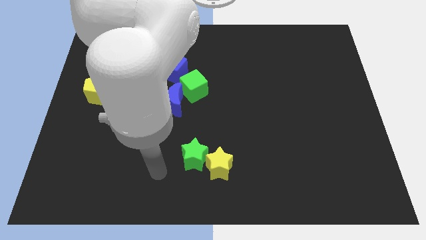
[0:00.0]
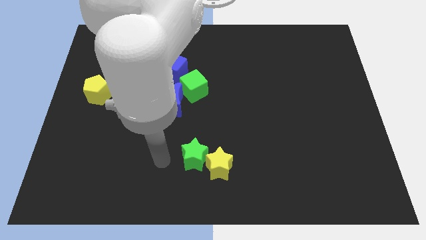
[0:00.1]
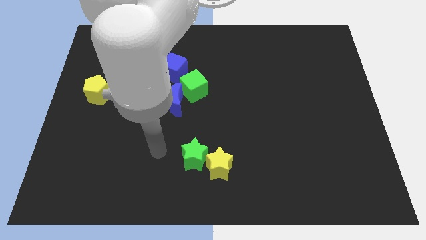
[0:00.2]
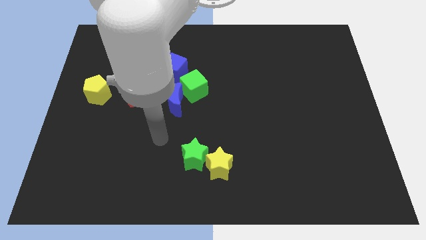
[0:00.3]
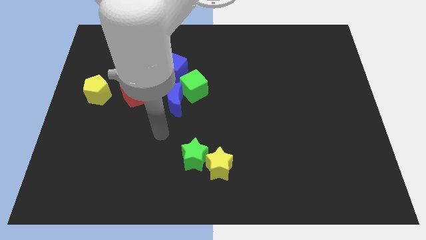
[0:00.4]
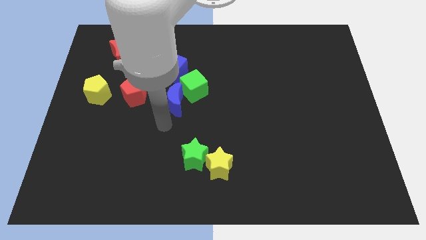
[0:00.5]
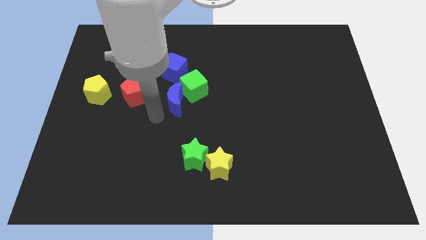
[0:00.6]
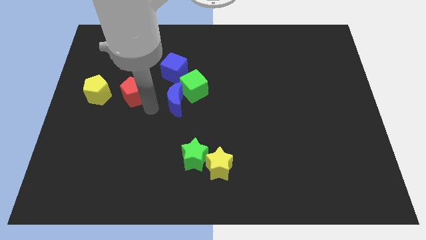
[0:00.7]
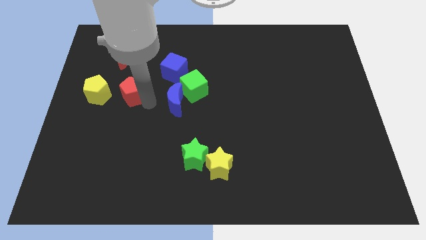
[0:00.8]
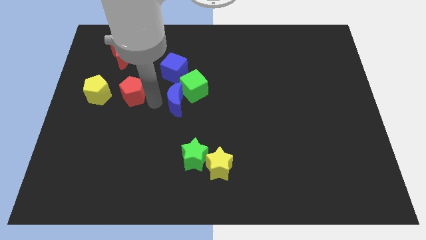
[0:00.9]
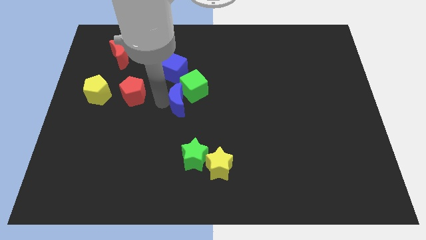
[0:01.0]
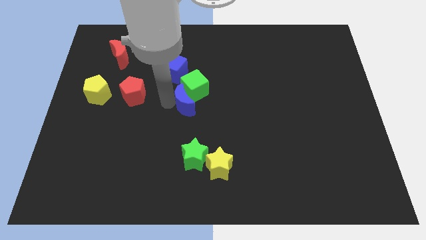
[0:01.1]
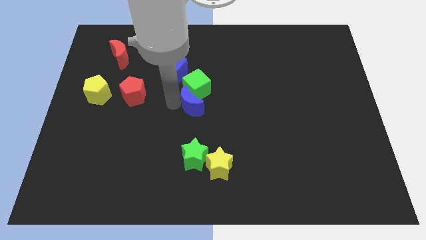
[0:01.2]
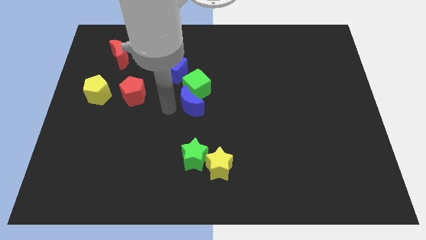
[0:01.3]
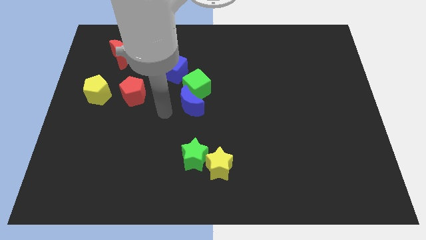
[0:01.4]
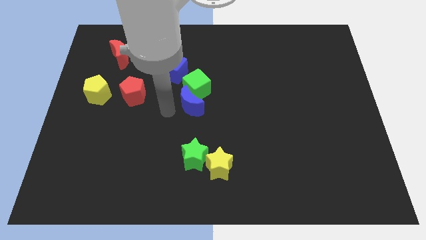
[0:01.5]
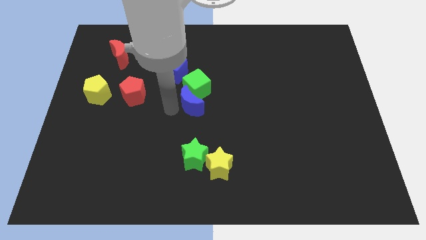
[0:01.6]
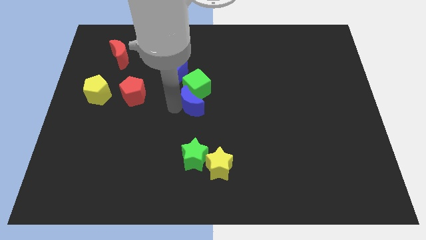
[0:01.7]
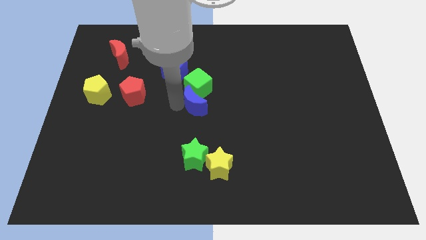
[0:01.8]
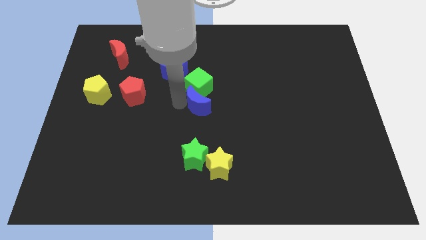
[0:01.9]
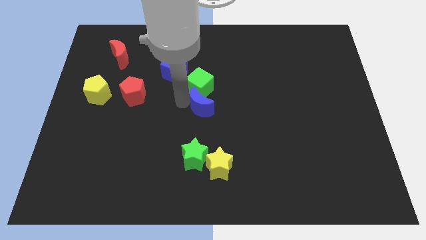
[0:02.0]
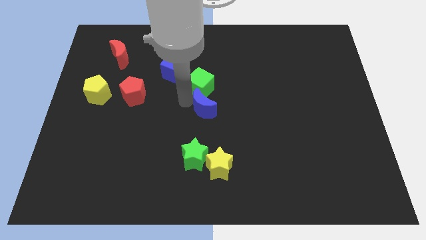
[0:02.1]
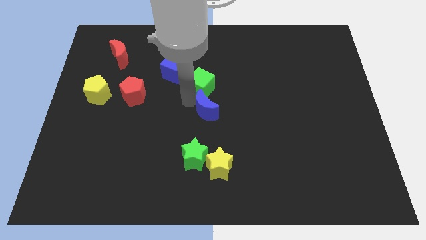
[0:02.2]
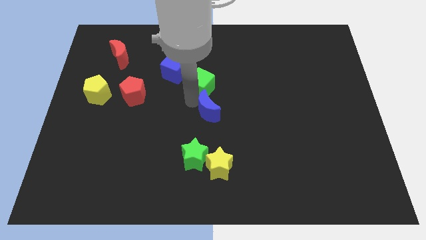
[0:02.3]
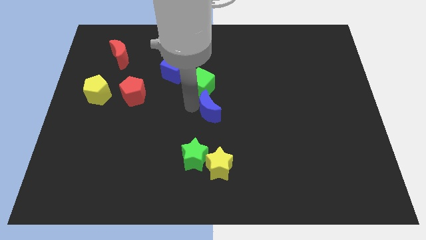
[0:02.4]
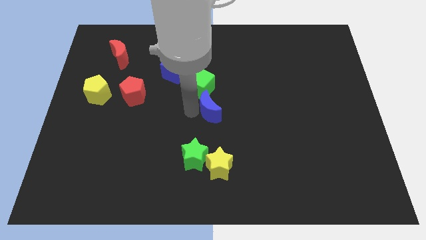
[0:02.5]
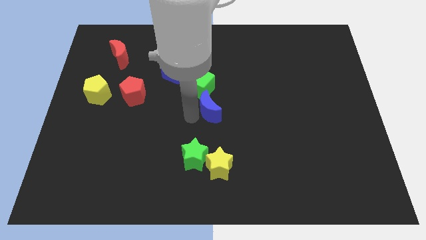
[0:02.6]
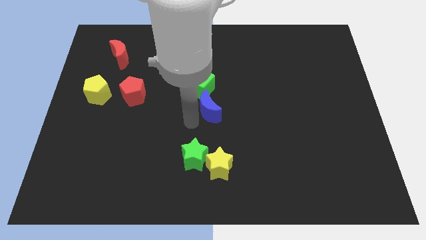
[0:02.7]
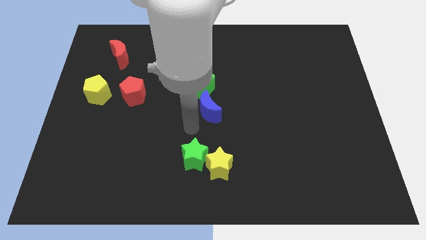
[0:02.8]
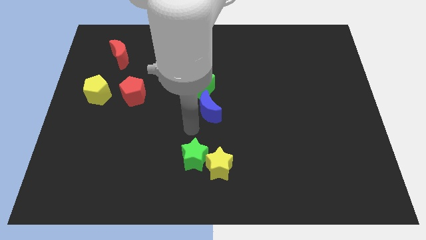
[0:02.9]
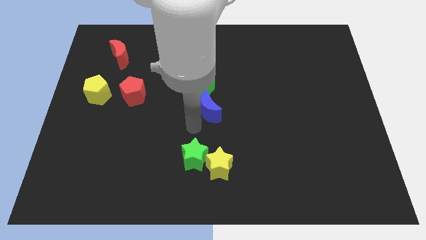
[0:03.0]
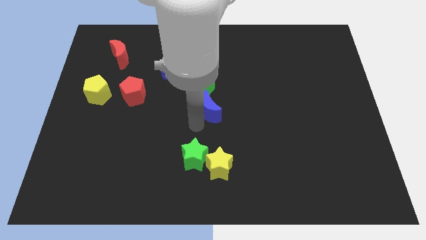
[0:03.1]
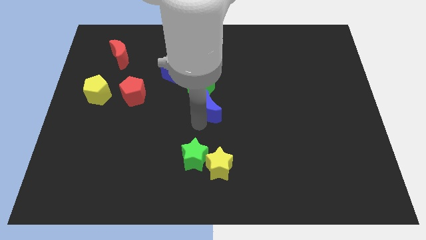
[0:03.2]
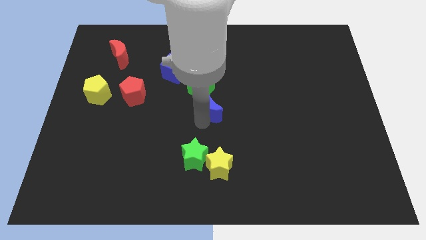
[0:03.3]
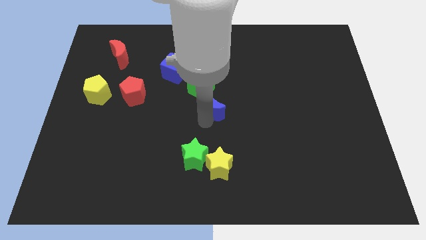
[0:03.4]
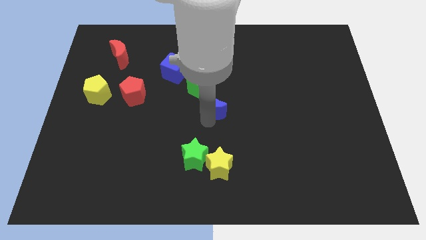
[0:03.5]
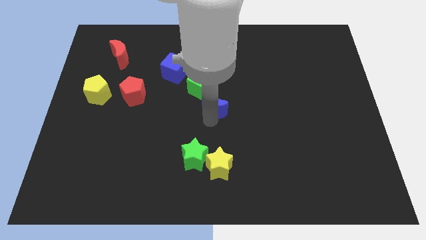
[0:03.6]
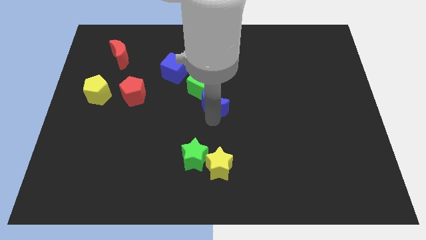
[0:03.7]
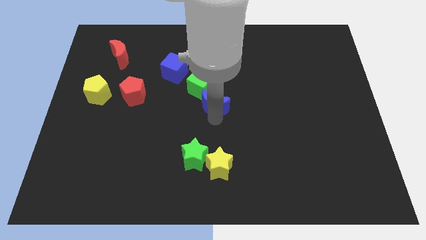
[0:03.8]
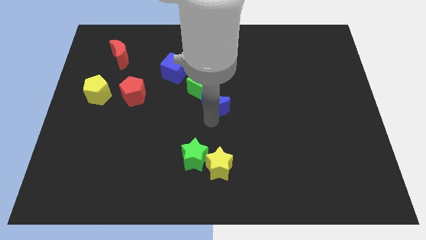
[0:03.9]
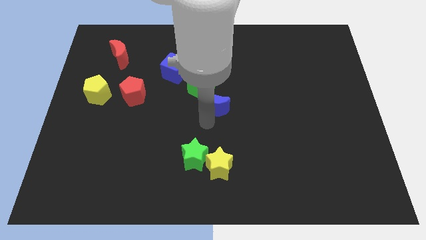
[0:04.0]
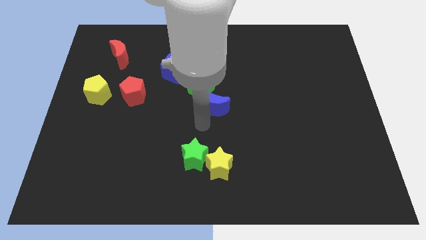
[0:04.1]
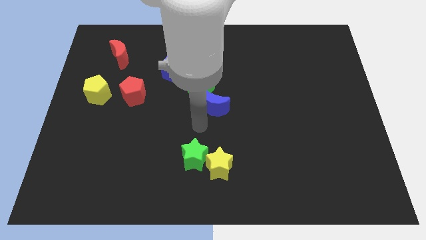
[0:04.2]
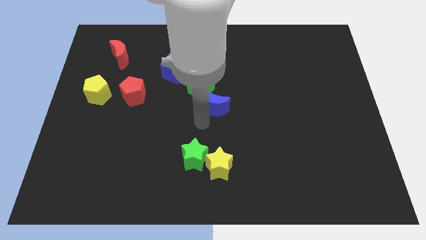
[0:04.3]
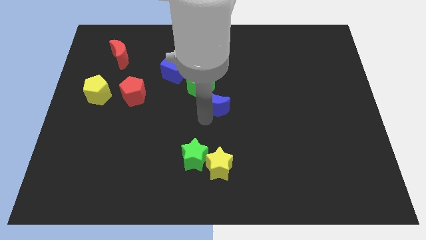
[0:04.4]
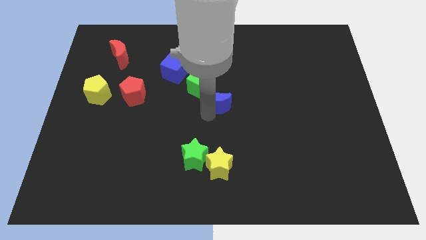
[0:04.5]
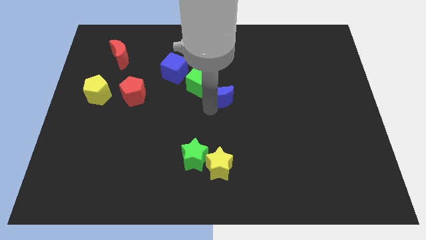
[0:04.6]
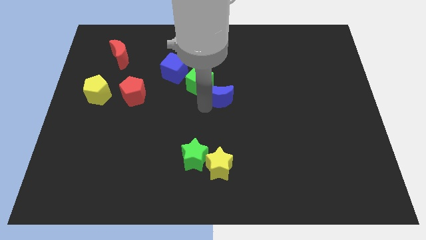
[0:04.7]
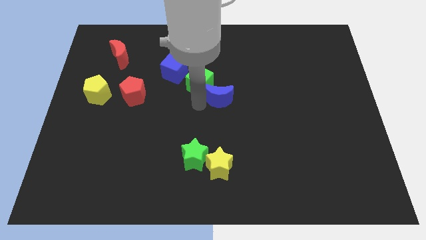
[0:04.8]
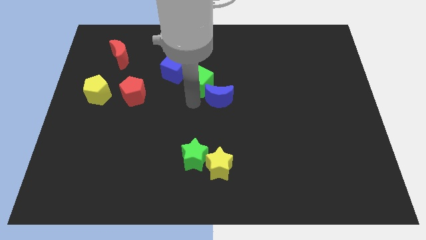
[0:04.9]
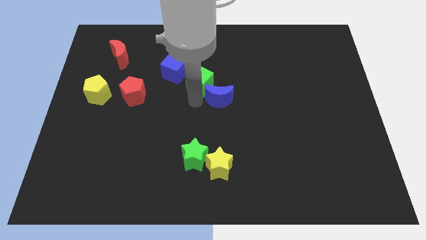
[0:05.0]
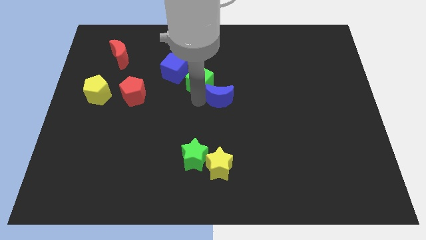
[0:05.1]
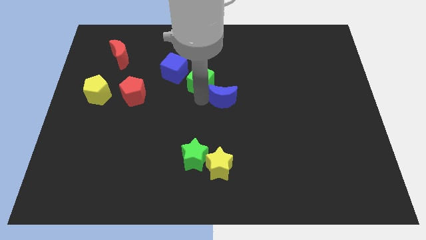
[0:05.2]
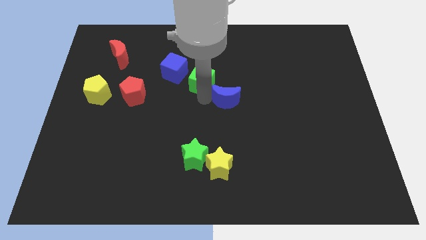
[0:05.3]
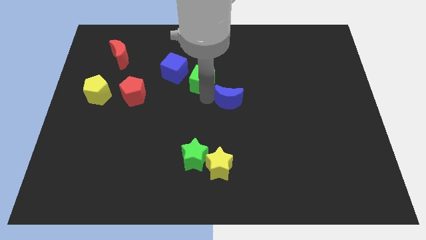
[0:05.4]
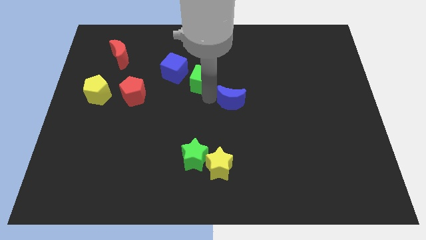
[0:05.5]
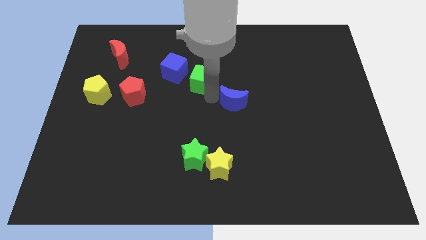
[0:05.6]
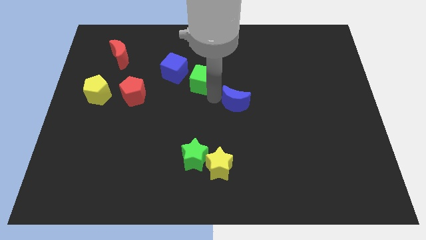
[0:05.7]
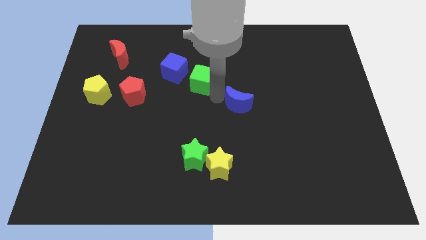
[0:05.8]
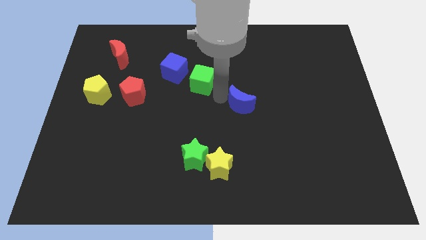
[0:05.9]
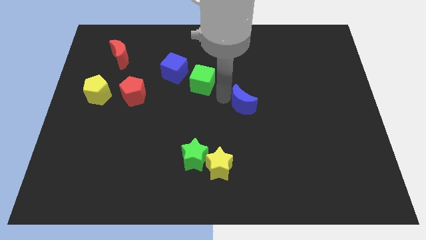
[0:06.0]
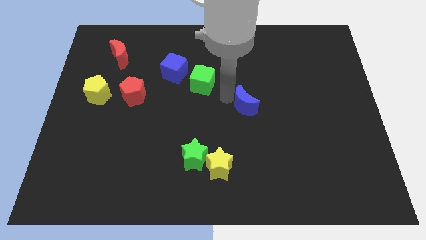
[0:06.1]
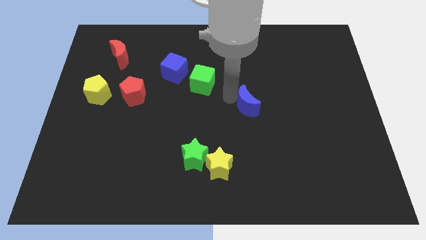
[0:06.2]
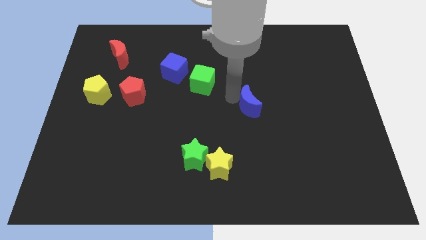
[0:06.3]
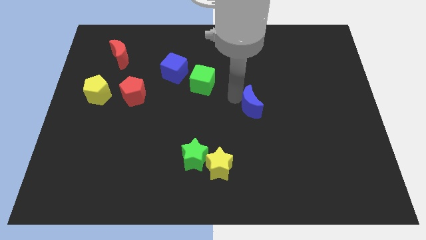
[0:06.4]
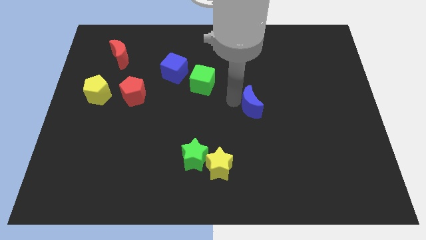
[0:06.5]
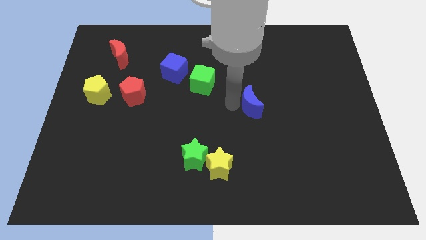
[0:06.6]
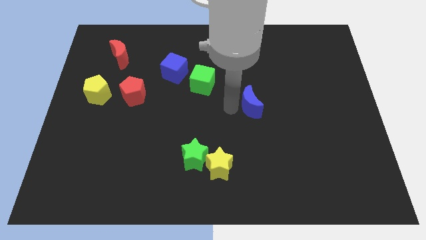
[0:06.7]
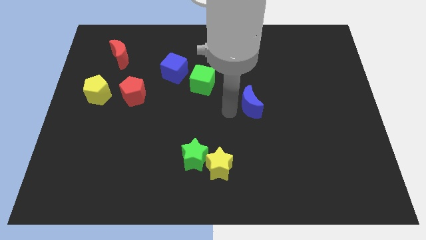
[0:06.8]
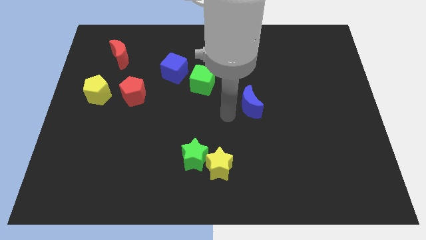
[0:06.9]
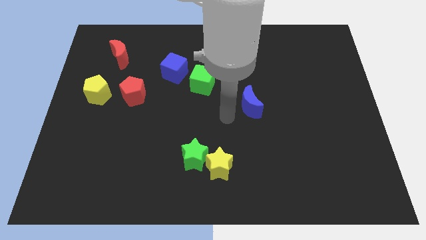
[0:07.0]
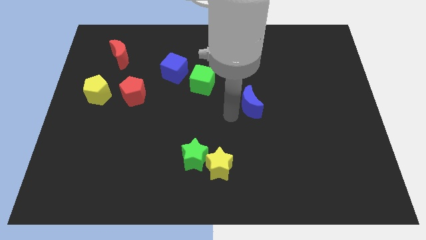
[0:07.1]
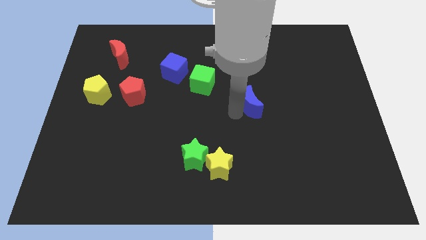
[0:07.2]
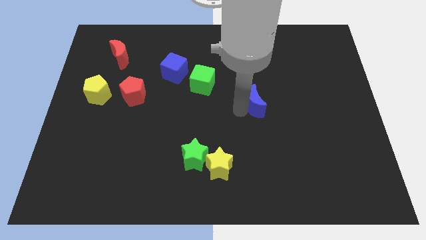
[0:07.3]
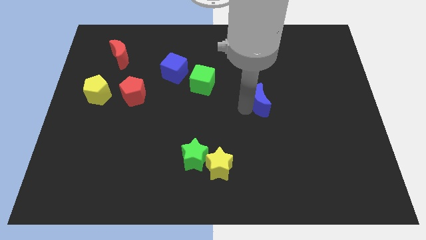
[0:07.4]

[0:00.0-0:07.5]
move the blue moon to the right

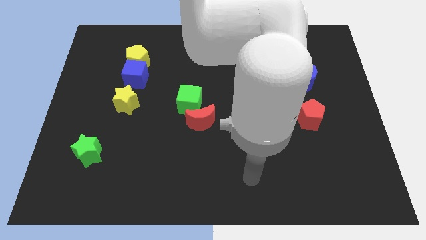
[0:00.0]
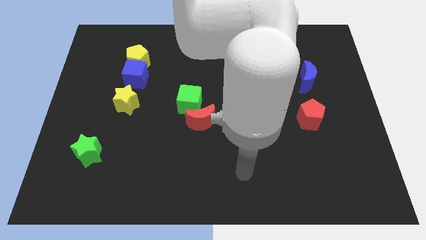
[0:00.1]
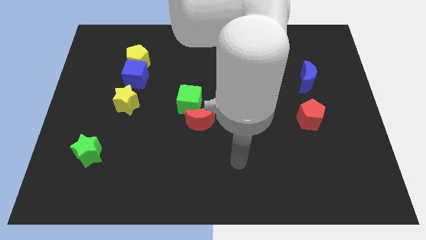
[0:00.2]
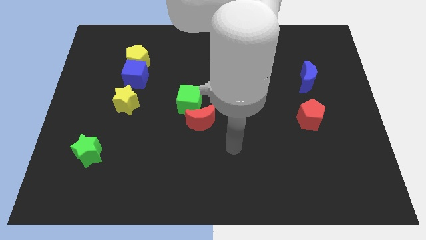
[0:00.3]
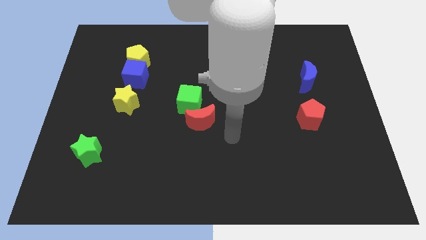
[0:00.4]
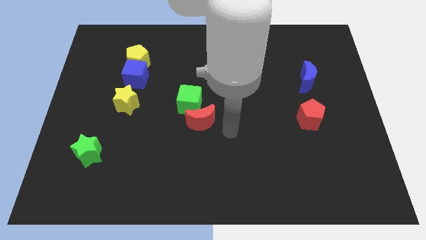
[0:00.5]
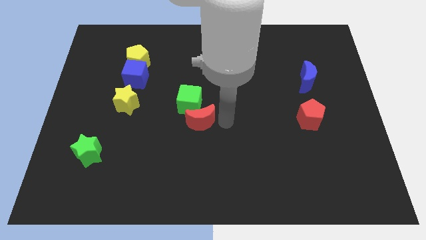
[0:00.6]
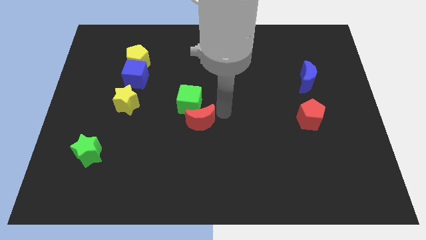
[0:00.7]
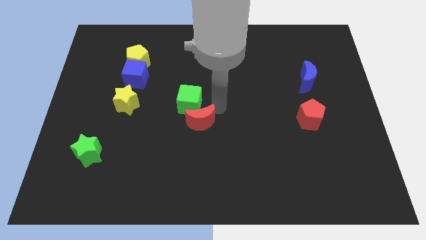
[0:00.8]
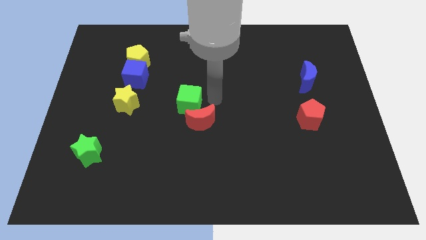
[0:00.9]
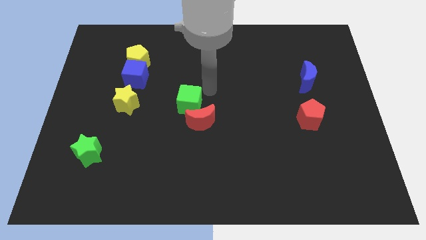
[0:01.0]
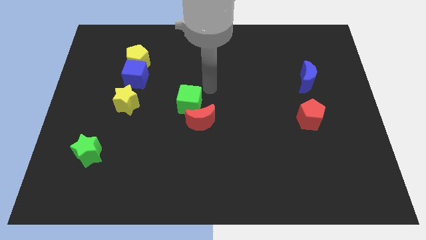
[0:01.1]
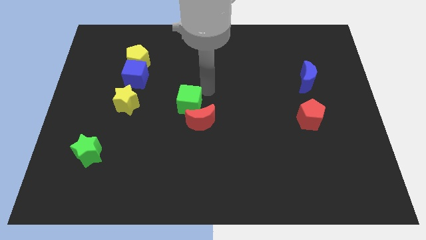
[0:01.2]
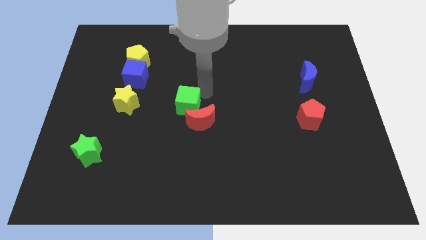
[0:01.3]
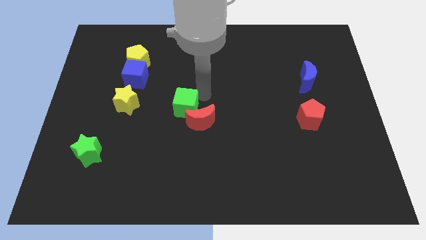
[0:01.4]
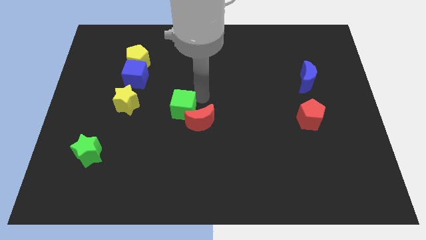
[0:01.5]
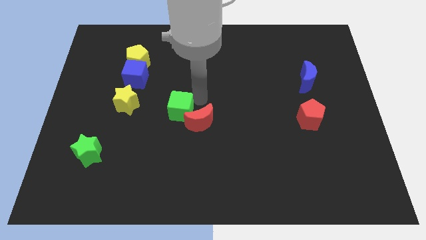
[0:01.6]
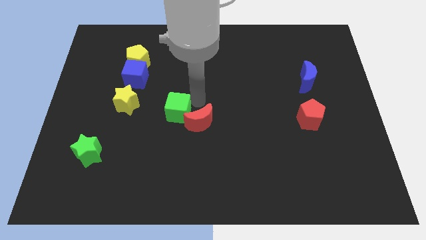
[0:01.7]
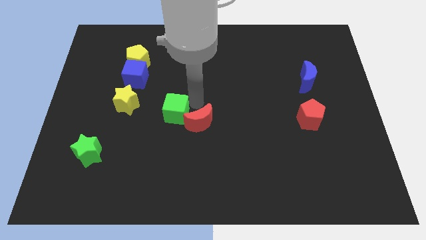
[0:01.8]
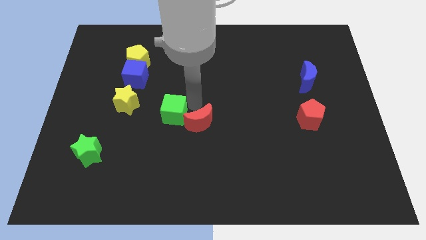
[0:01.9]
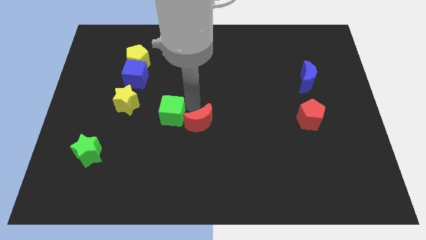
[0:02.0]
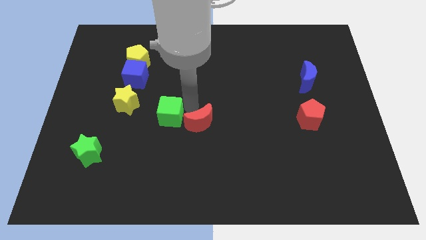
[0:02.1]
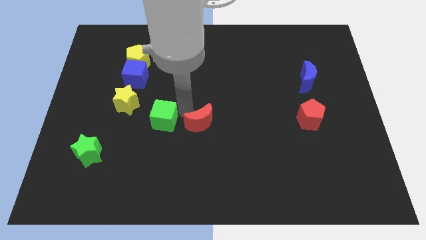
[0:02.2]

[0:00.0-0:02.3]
push the green cube a little downwards and to the left diagonally
